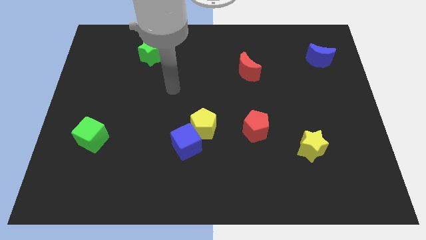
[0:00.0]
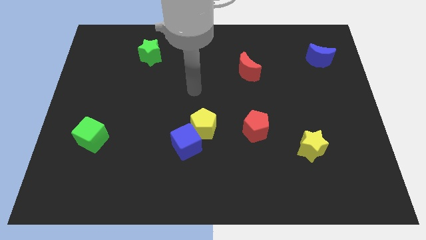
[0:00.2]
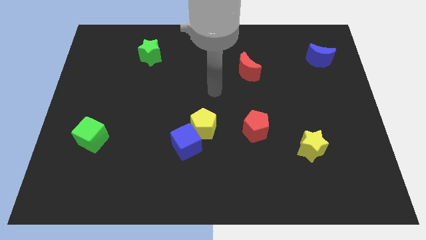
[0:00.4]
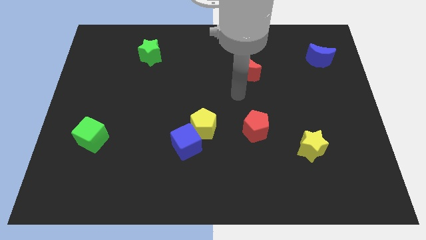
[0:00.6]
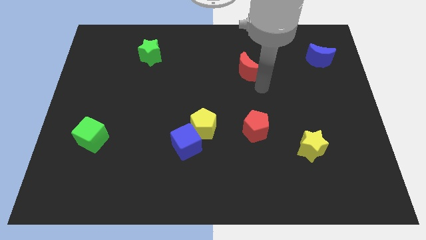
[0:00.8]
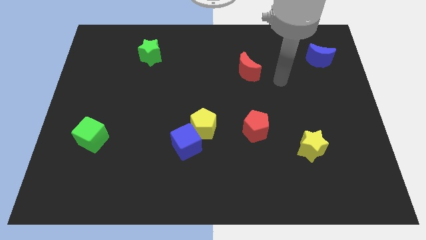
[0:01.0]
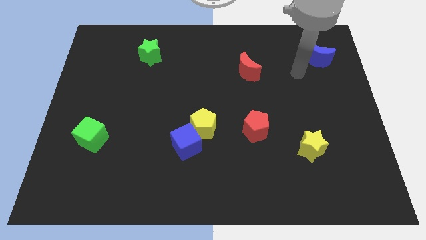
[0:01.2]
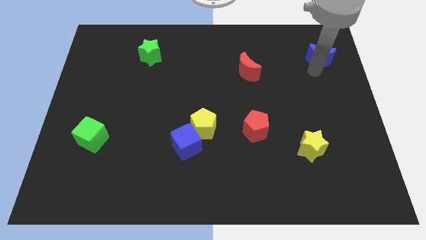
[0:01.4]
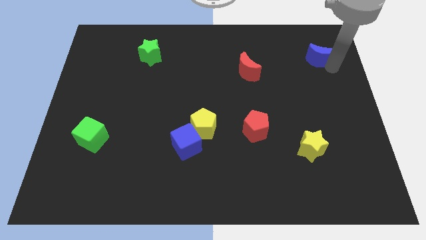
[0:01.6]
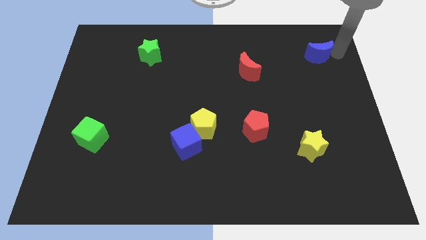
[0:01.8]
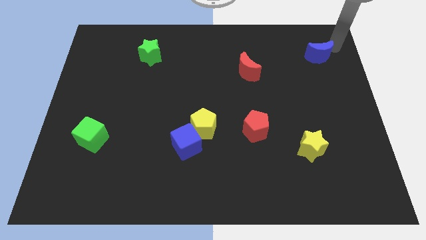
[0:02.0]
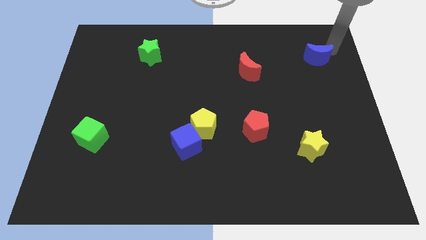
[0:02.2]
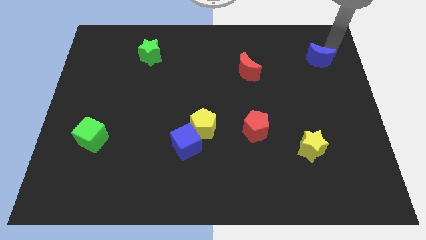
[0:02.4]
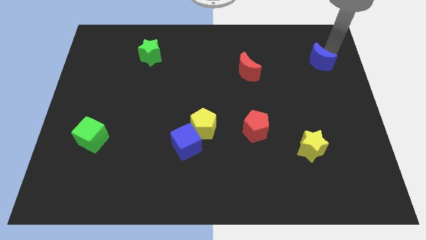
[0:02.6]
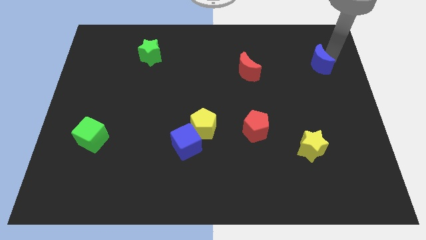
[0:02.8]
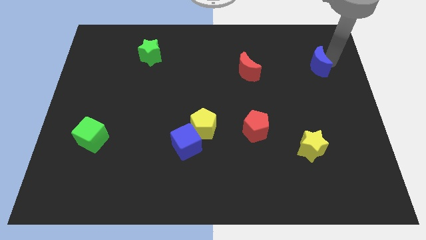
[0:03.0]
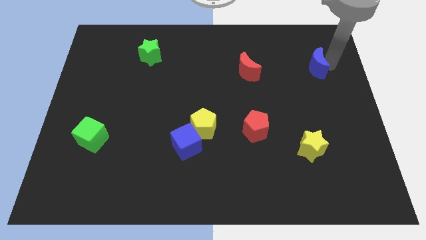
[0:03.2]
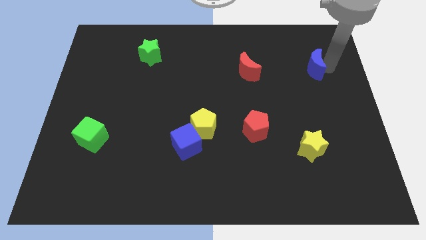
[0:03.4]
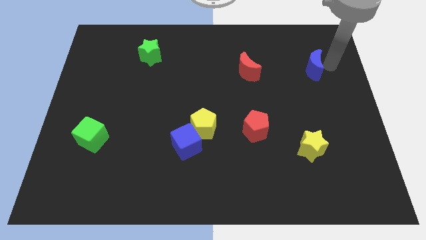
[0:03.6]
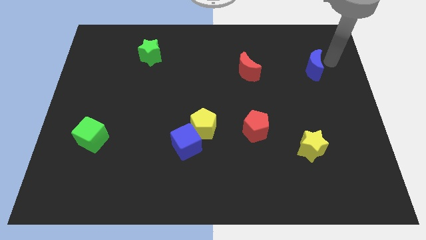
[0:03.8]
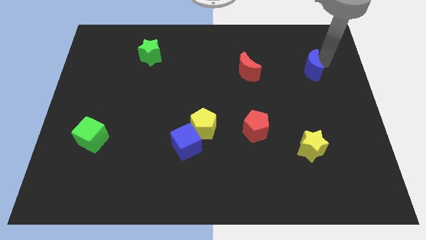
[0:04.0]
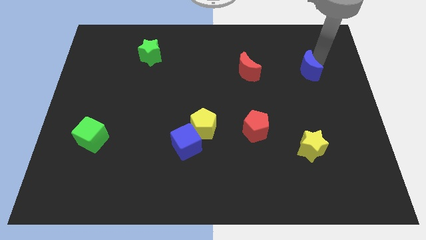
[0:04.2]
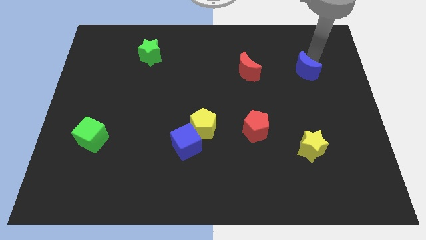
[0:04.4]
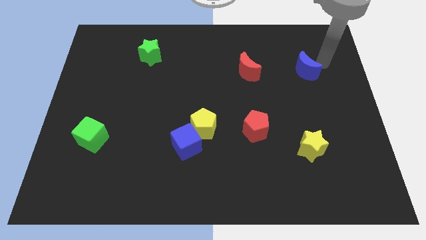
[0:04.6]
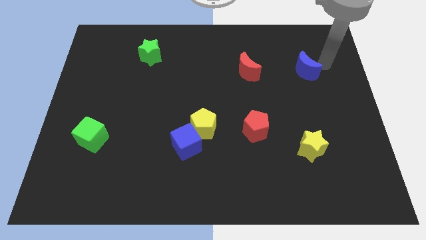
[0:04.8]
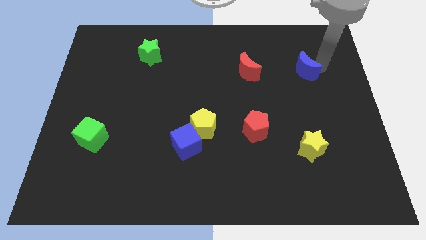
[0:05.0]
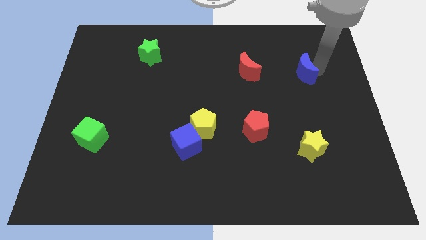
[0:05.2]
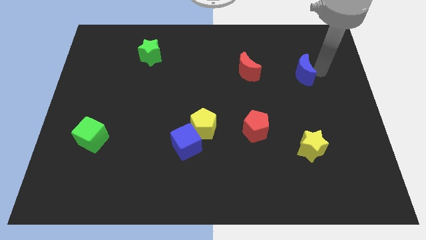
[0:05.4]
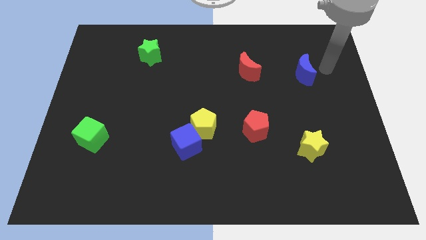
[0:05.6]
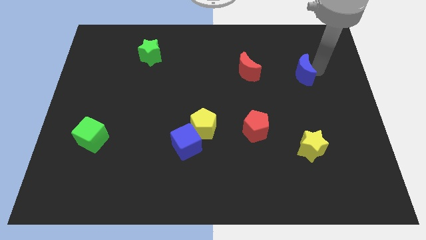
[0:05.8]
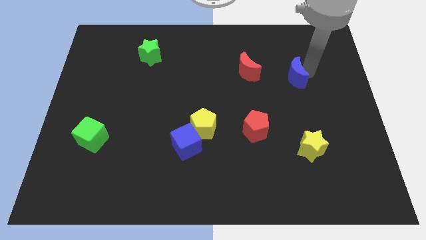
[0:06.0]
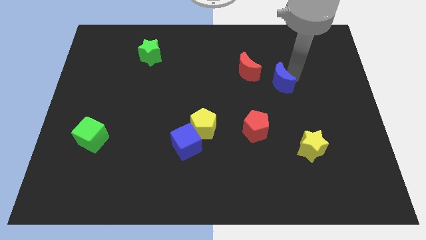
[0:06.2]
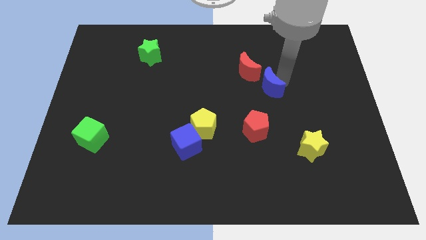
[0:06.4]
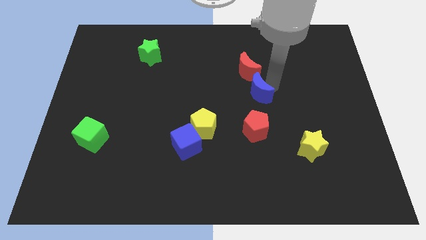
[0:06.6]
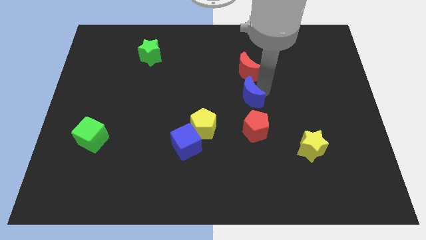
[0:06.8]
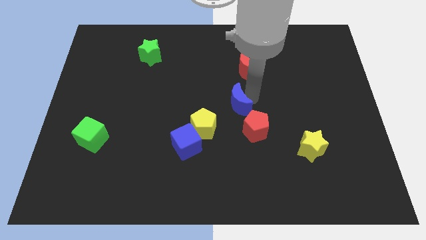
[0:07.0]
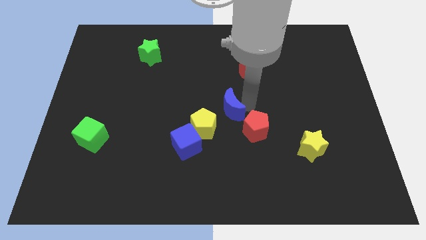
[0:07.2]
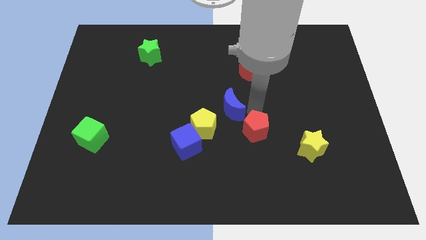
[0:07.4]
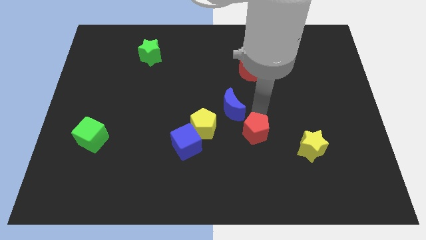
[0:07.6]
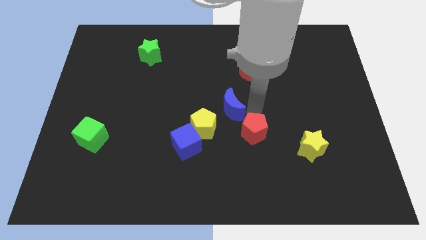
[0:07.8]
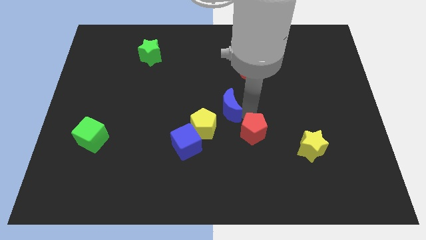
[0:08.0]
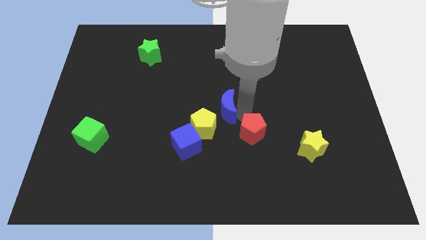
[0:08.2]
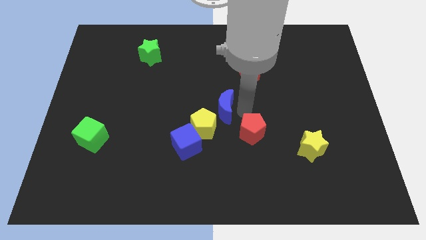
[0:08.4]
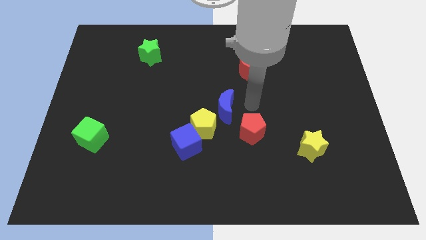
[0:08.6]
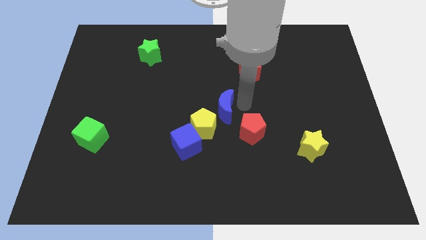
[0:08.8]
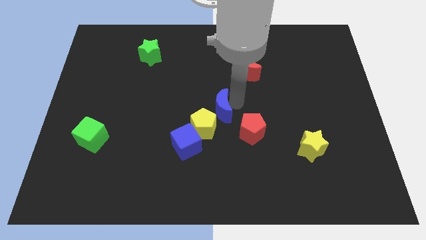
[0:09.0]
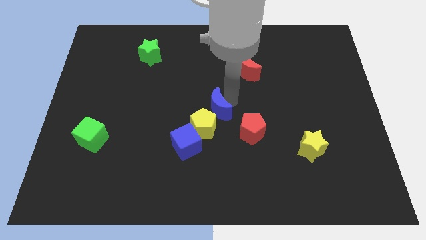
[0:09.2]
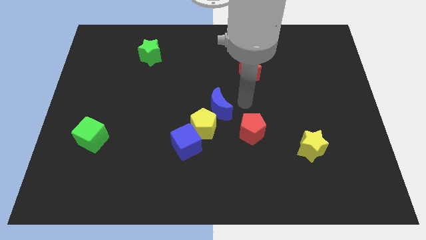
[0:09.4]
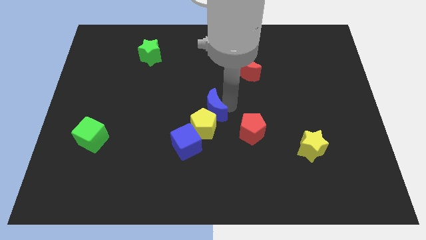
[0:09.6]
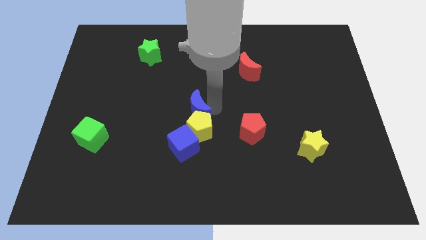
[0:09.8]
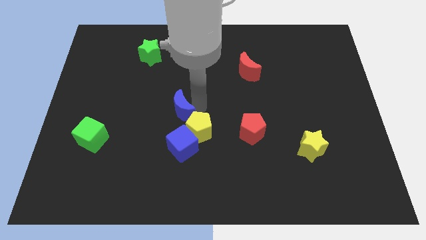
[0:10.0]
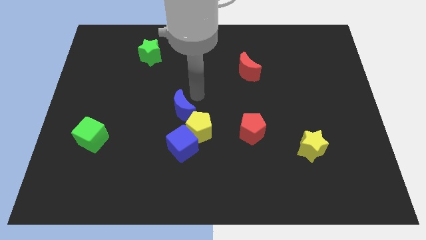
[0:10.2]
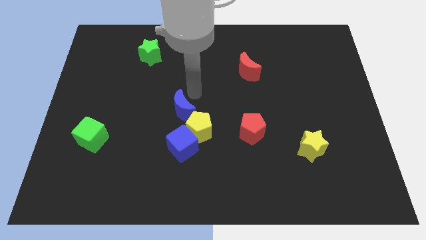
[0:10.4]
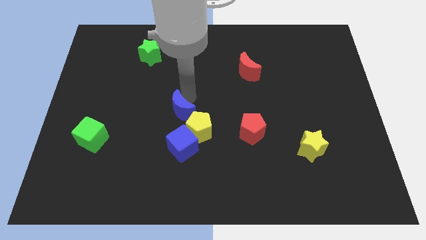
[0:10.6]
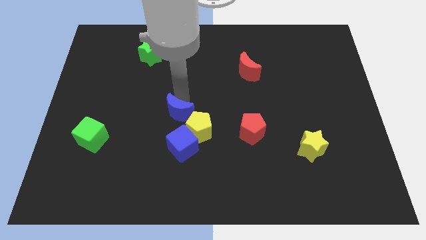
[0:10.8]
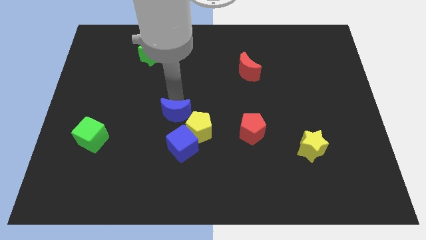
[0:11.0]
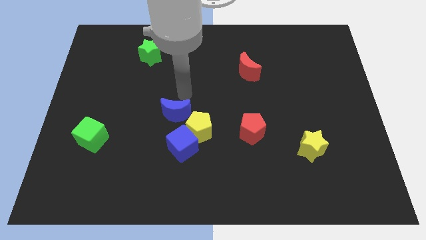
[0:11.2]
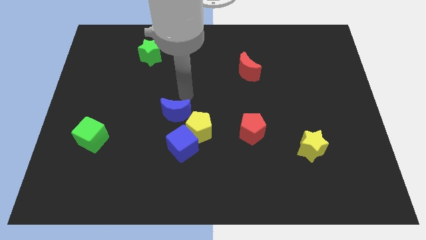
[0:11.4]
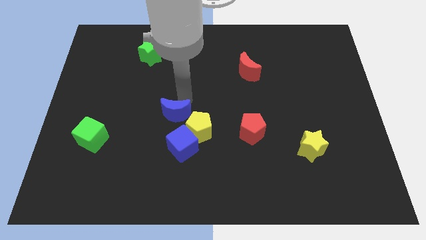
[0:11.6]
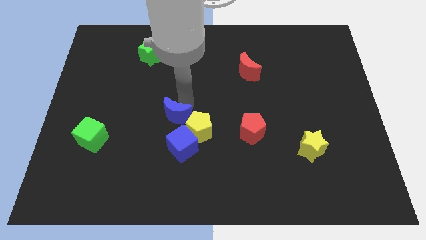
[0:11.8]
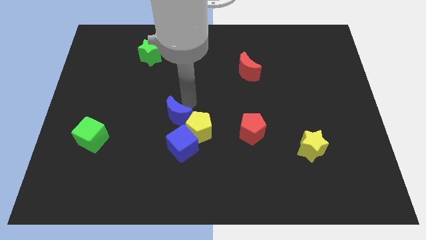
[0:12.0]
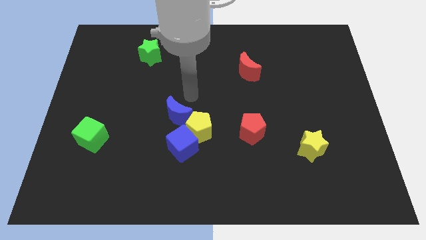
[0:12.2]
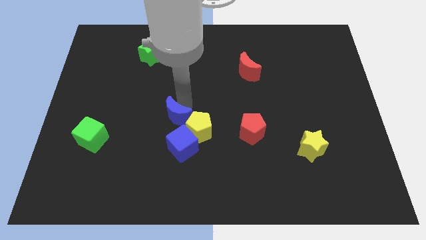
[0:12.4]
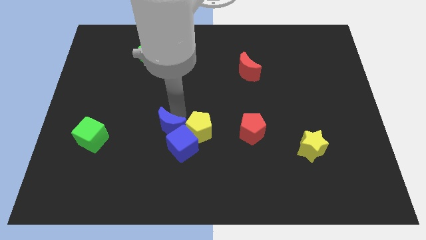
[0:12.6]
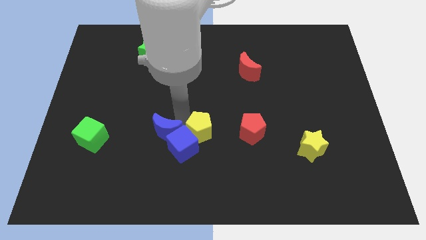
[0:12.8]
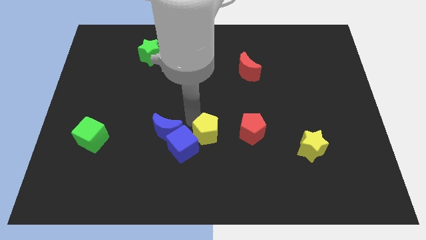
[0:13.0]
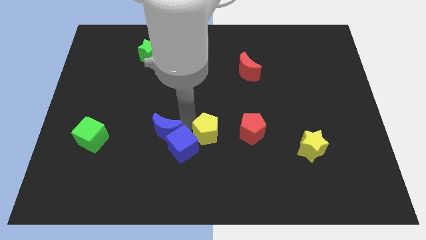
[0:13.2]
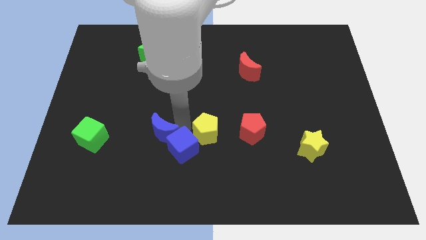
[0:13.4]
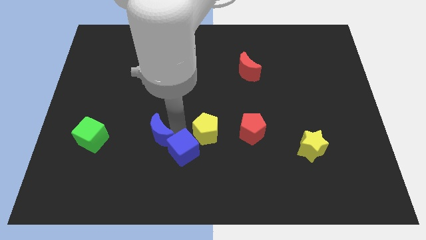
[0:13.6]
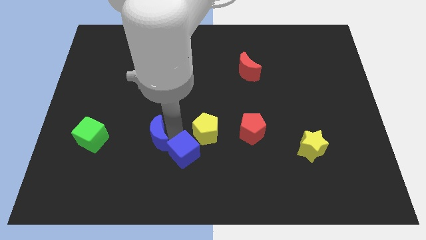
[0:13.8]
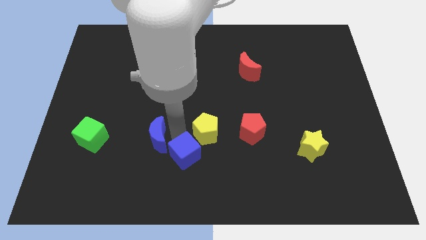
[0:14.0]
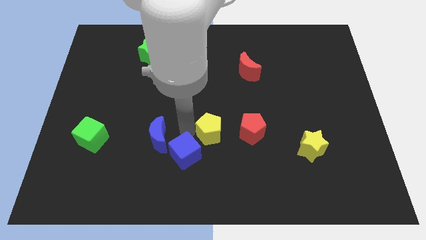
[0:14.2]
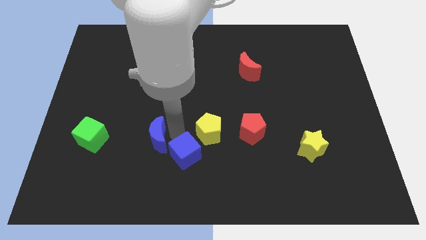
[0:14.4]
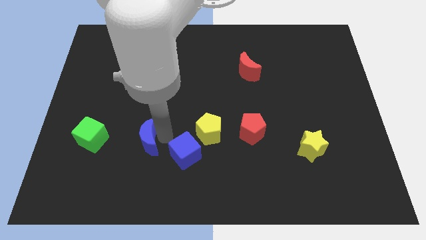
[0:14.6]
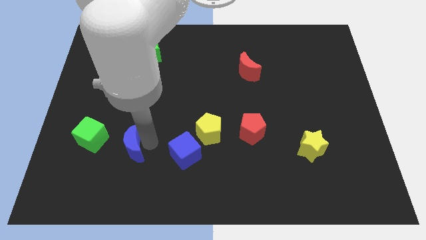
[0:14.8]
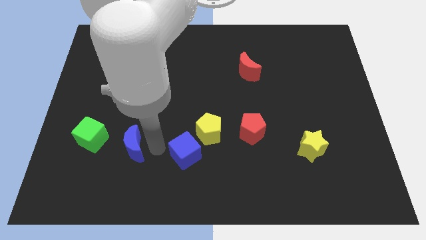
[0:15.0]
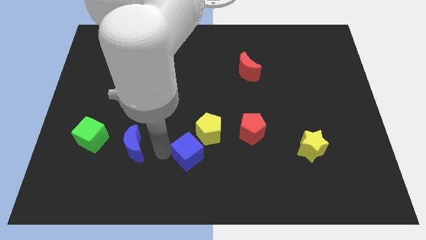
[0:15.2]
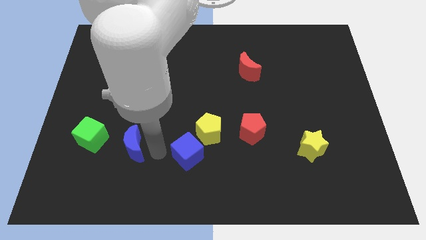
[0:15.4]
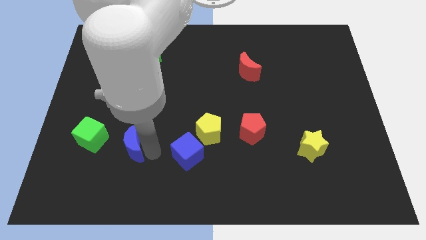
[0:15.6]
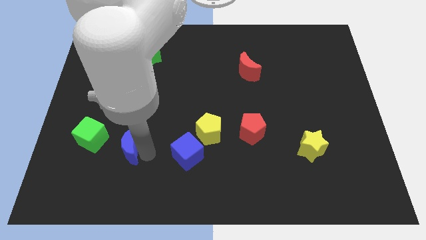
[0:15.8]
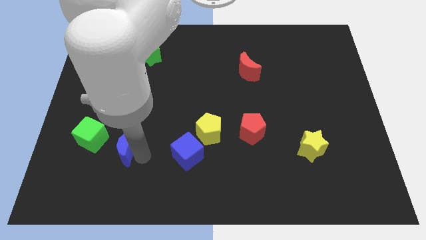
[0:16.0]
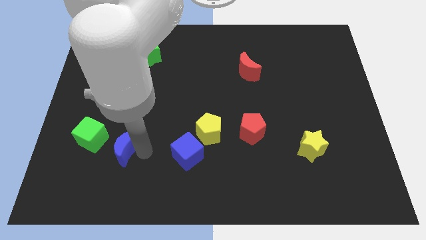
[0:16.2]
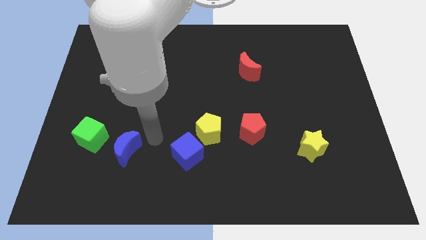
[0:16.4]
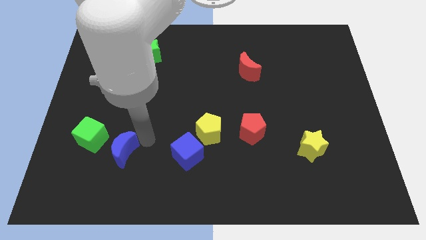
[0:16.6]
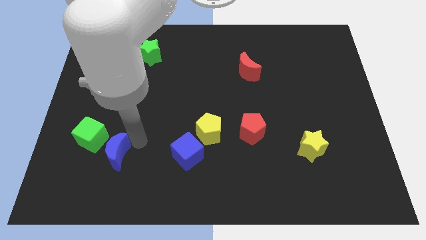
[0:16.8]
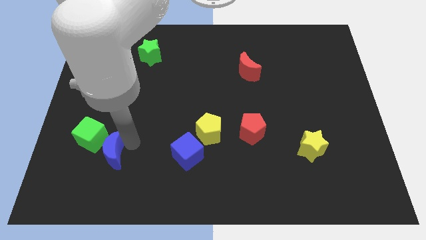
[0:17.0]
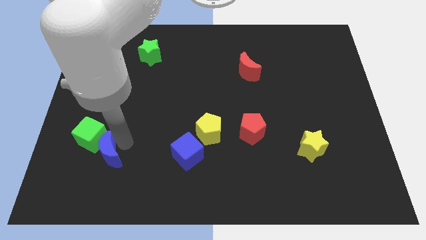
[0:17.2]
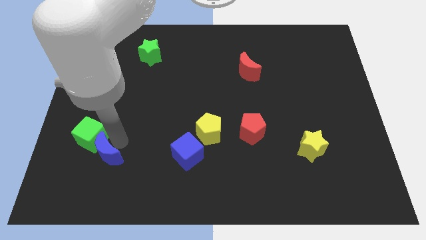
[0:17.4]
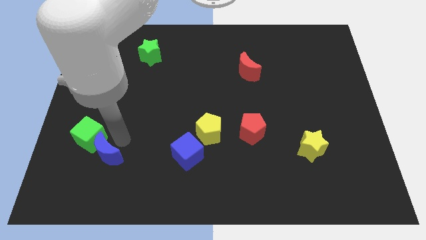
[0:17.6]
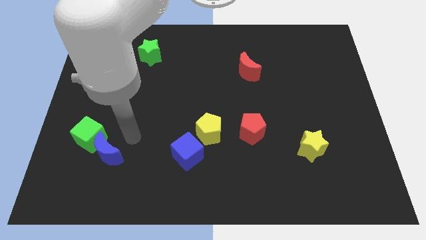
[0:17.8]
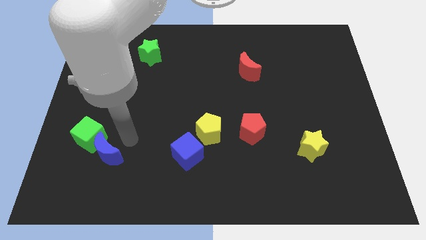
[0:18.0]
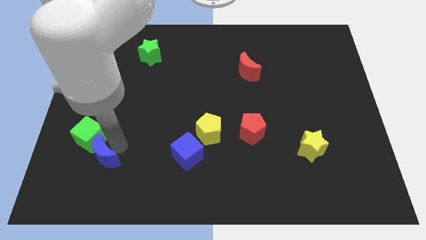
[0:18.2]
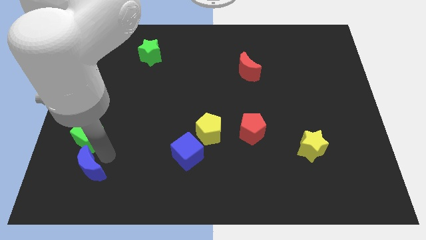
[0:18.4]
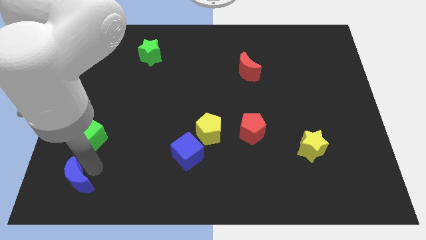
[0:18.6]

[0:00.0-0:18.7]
slide the blue moon to the bottom left
